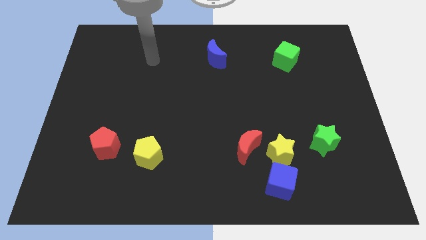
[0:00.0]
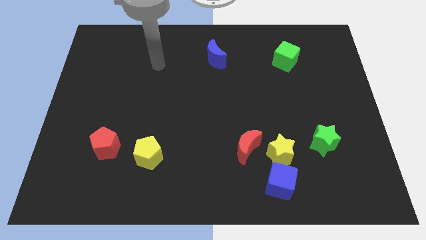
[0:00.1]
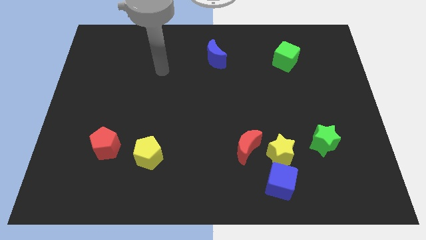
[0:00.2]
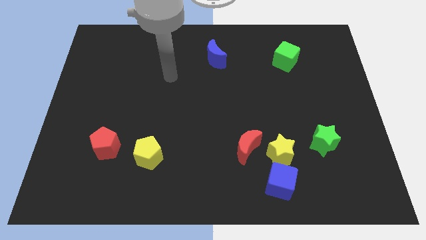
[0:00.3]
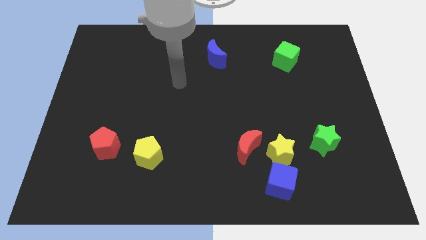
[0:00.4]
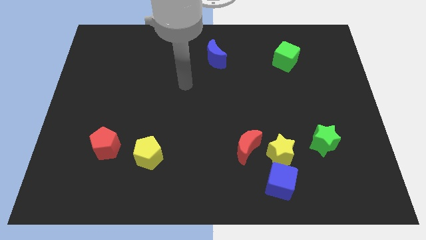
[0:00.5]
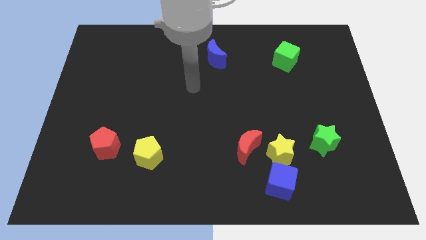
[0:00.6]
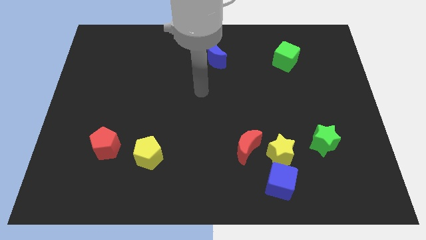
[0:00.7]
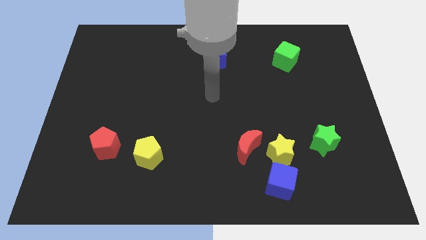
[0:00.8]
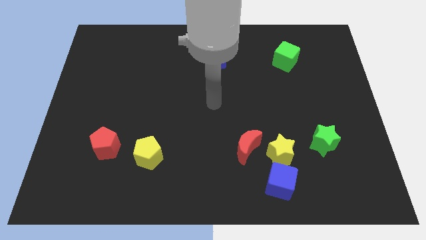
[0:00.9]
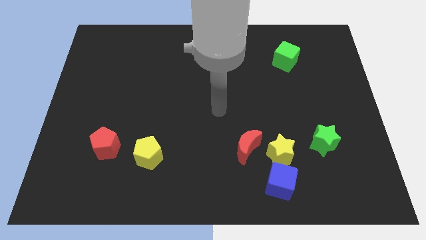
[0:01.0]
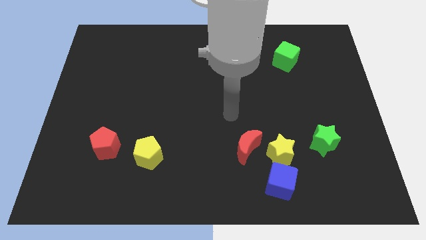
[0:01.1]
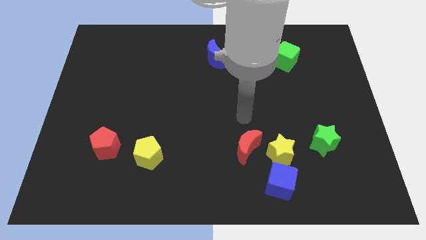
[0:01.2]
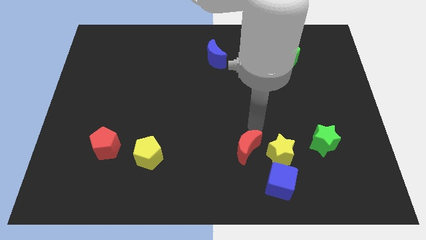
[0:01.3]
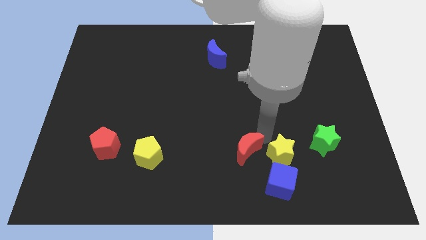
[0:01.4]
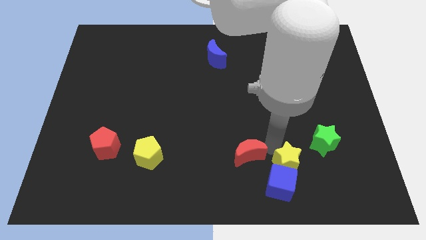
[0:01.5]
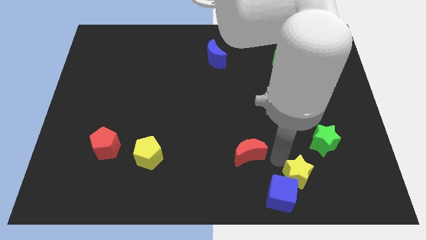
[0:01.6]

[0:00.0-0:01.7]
move the red moon away from the yellow star

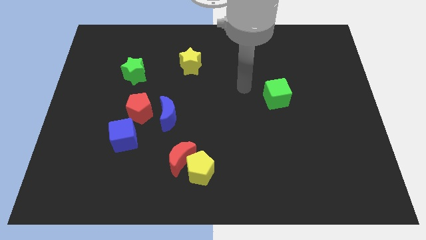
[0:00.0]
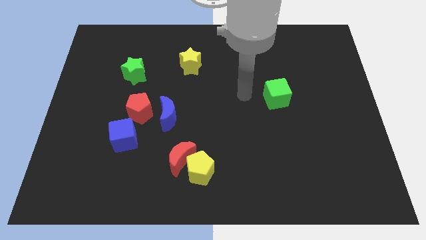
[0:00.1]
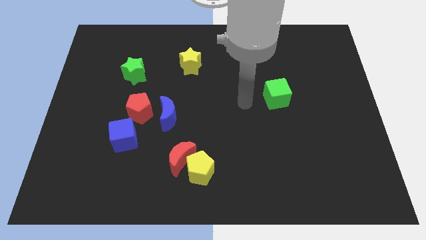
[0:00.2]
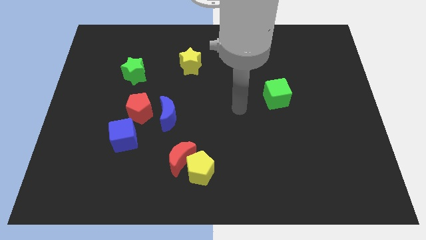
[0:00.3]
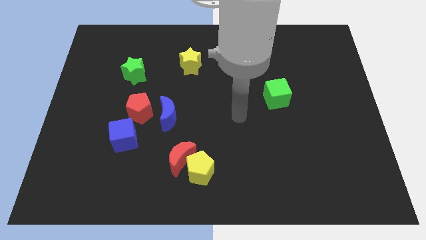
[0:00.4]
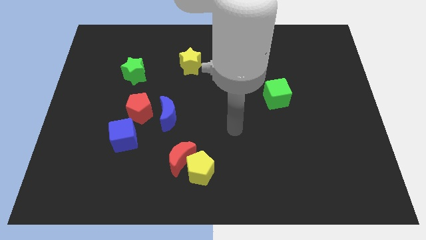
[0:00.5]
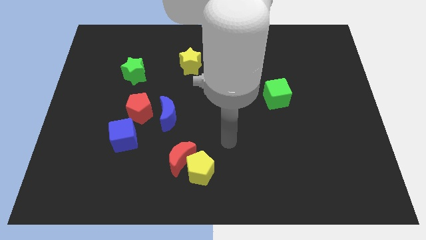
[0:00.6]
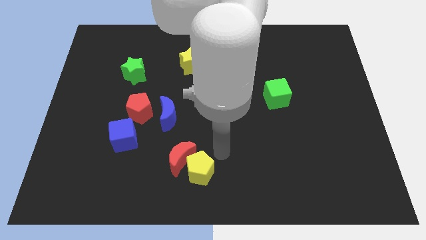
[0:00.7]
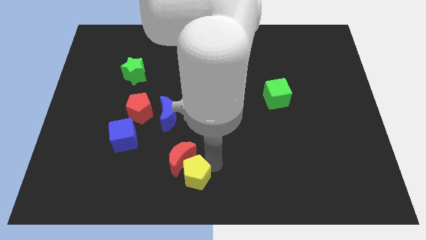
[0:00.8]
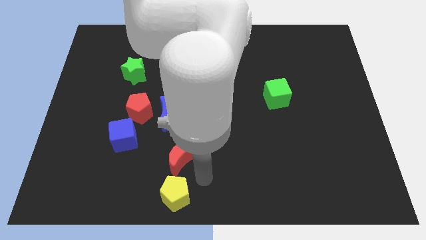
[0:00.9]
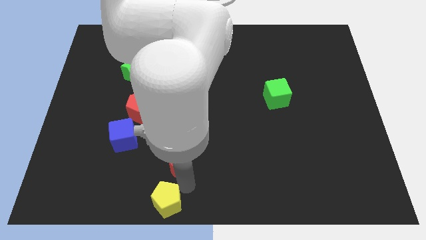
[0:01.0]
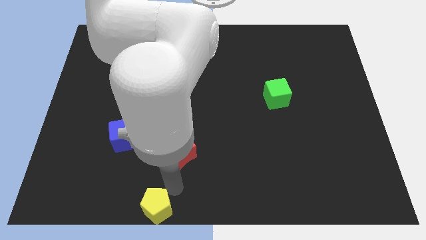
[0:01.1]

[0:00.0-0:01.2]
move the red moon away from the yellow pentagon

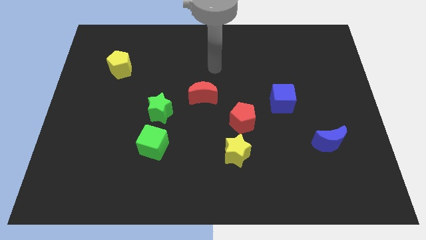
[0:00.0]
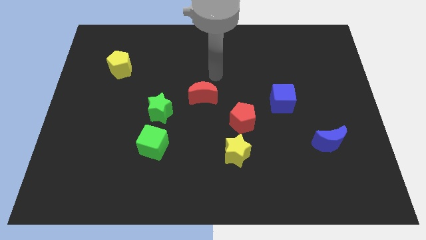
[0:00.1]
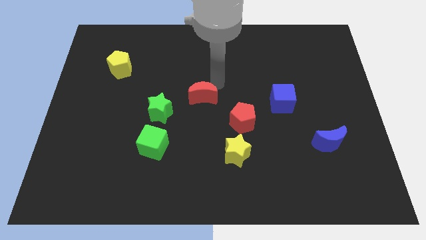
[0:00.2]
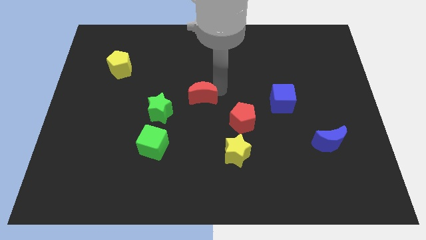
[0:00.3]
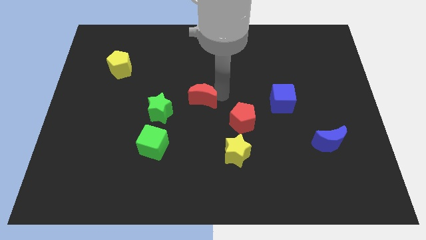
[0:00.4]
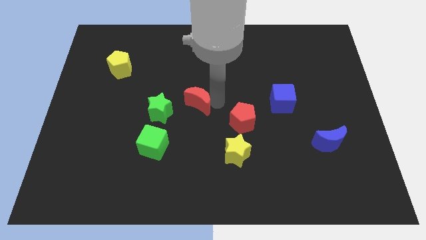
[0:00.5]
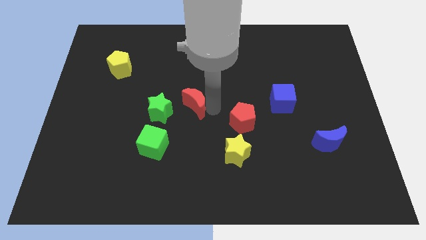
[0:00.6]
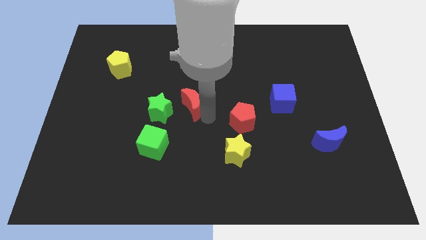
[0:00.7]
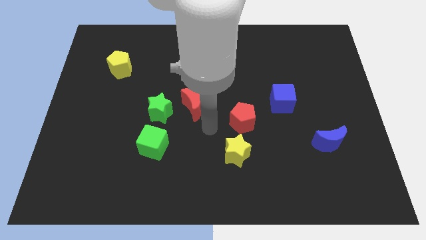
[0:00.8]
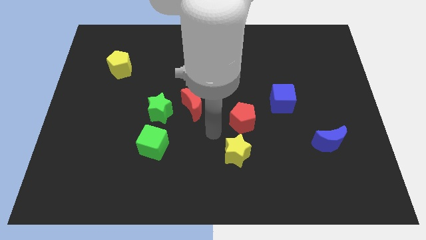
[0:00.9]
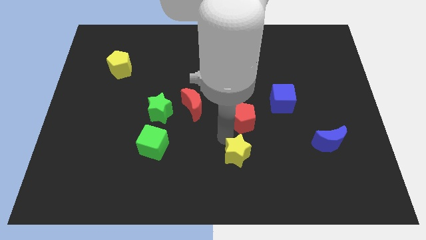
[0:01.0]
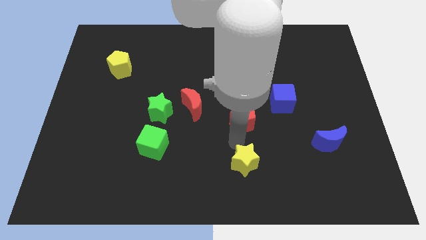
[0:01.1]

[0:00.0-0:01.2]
move the red pentagon away from the yellow star

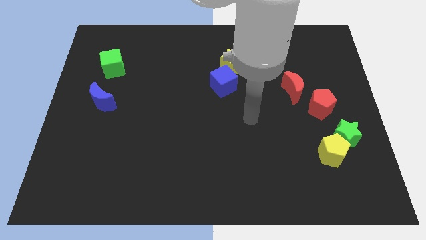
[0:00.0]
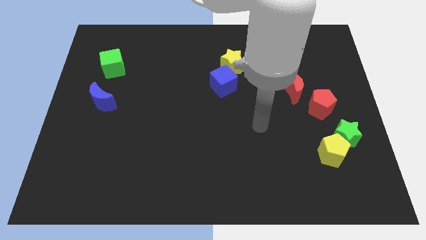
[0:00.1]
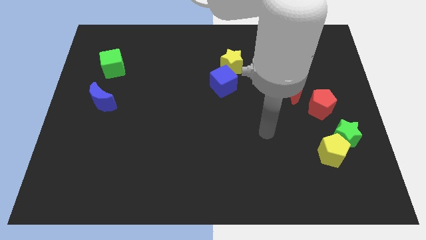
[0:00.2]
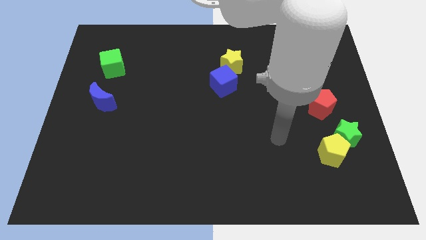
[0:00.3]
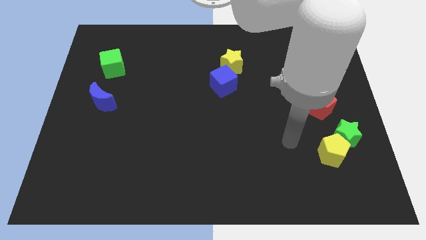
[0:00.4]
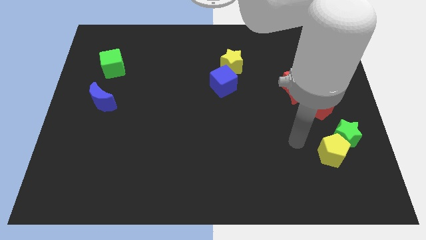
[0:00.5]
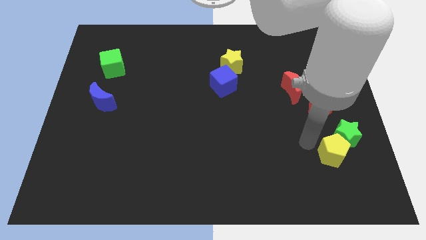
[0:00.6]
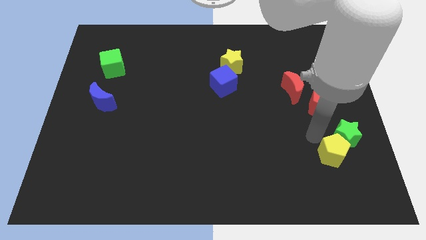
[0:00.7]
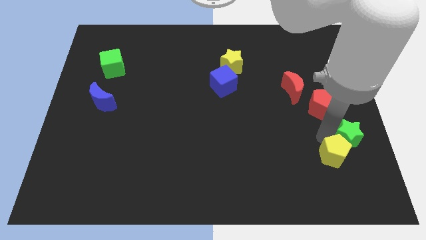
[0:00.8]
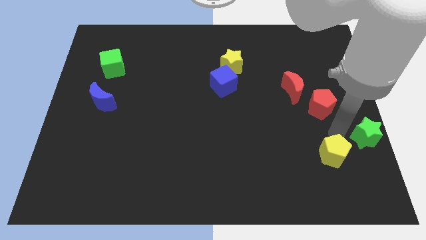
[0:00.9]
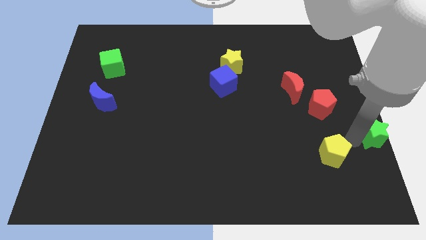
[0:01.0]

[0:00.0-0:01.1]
move the yellow pentagon away from the green star

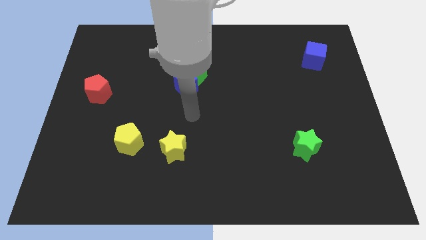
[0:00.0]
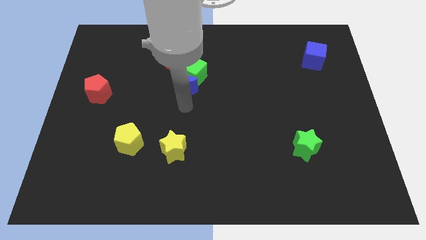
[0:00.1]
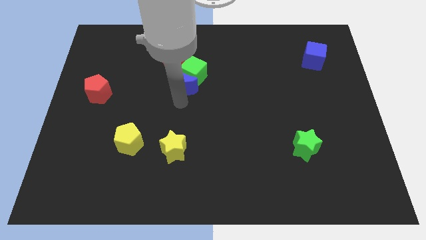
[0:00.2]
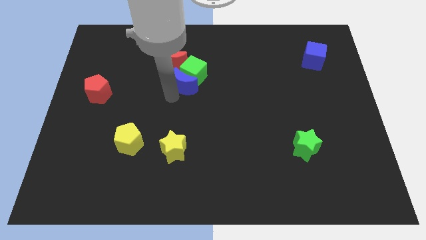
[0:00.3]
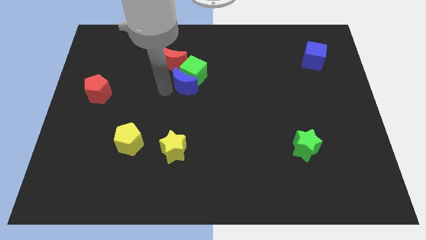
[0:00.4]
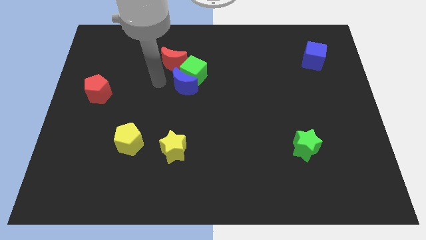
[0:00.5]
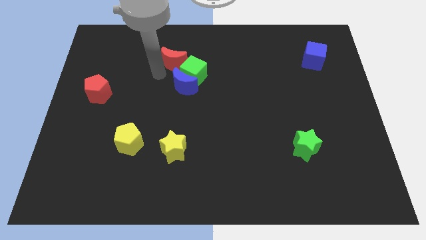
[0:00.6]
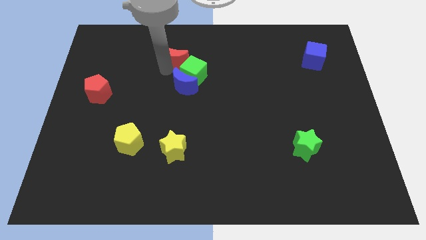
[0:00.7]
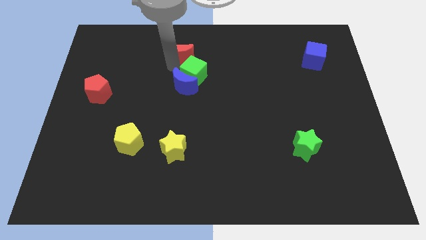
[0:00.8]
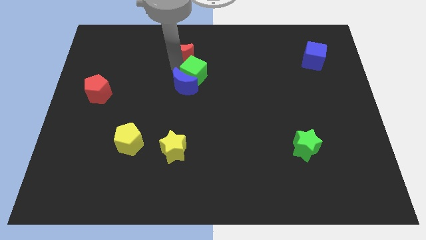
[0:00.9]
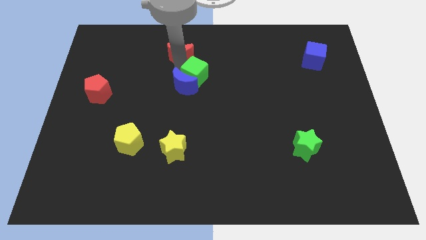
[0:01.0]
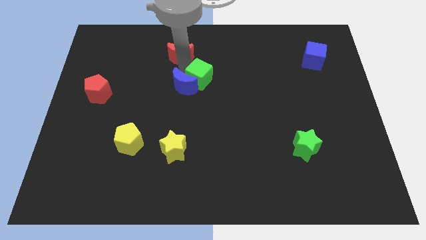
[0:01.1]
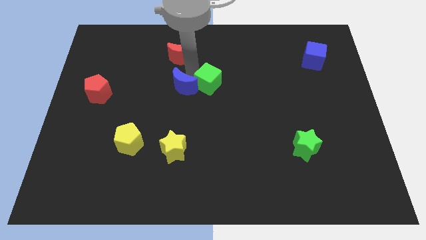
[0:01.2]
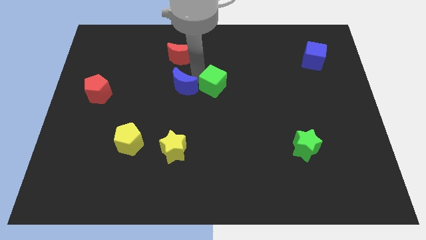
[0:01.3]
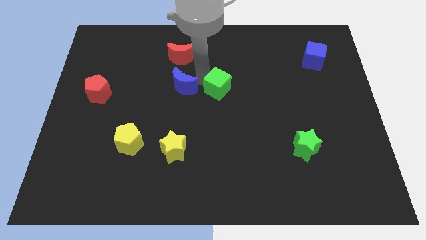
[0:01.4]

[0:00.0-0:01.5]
separate the green cube from the blue moon and red moon

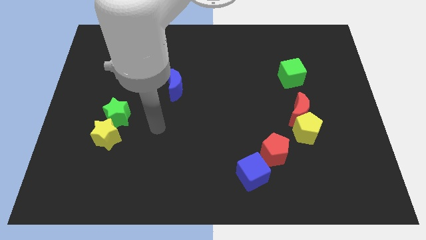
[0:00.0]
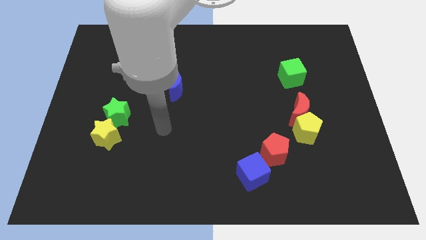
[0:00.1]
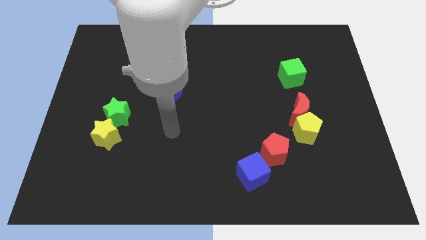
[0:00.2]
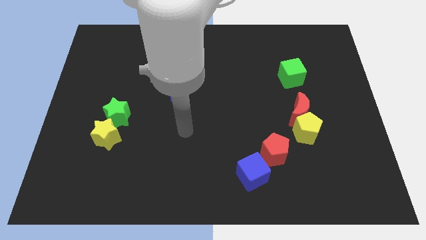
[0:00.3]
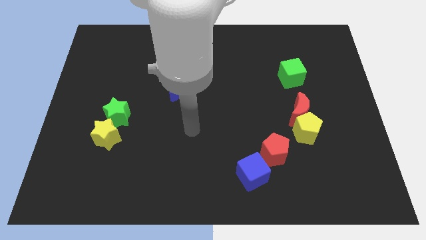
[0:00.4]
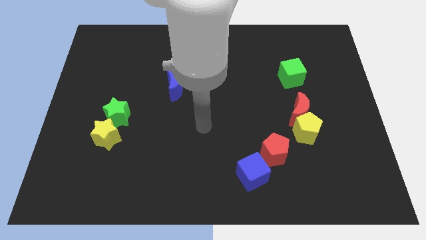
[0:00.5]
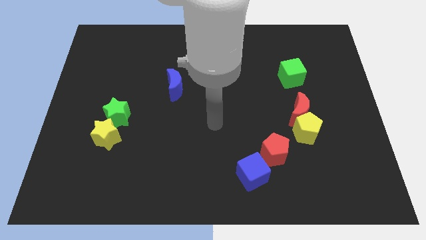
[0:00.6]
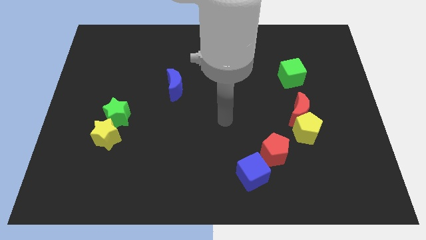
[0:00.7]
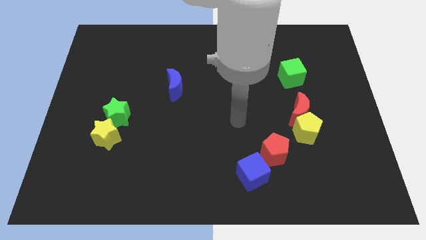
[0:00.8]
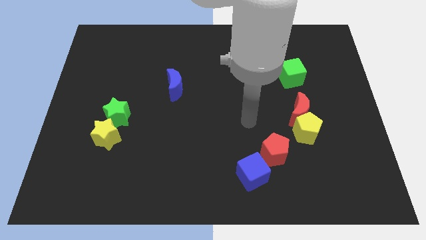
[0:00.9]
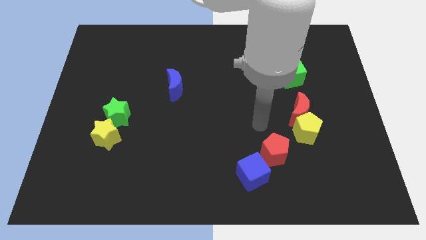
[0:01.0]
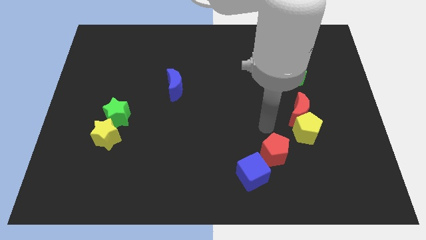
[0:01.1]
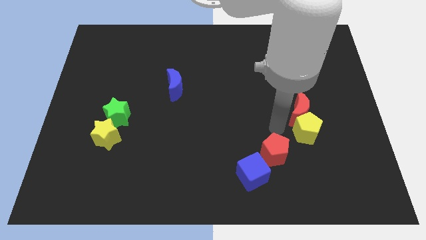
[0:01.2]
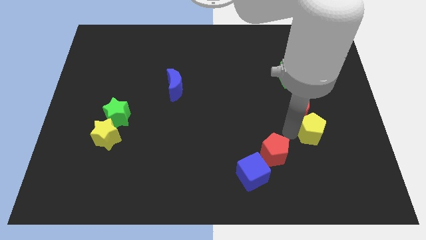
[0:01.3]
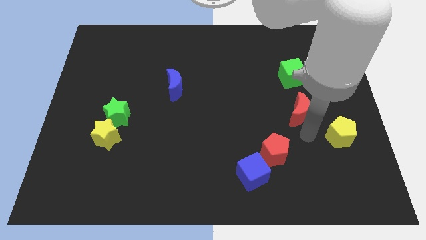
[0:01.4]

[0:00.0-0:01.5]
pull the red moon apart from the yellow pentagon

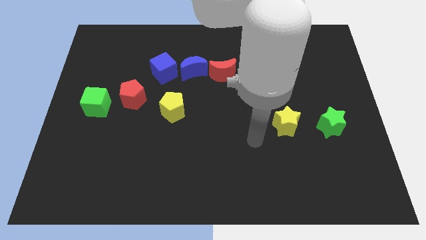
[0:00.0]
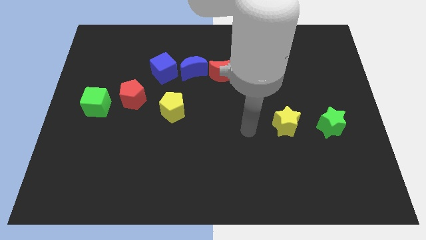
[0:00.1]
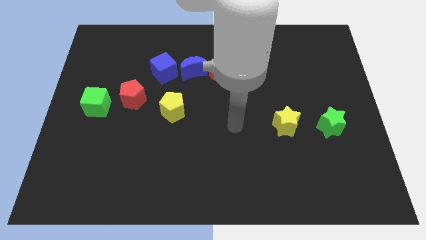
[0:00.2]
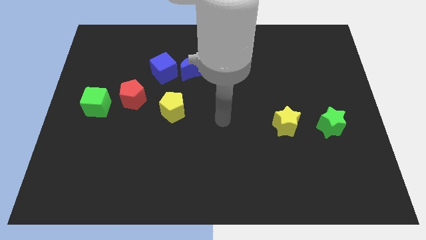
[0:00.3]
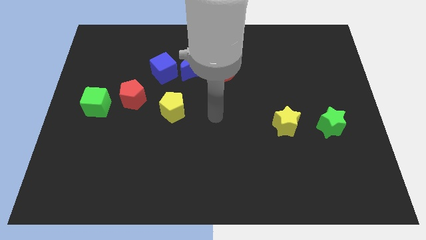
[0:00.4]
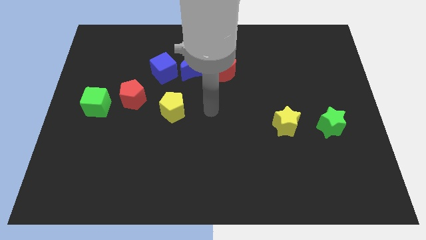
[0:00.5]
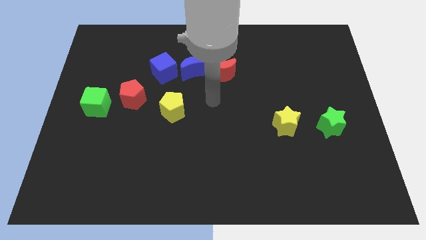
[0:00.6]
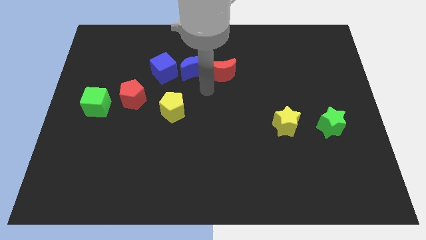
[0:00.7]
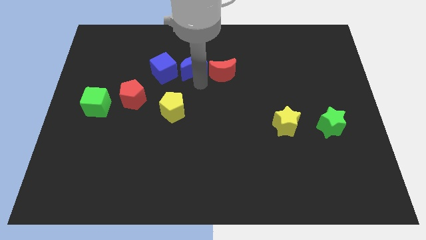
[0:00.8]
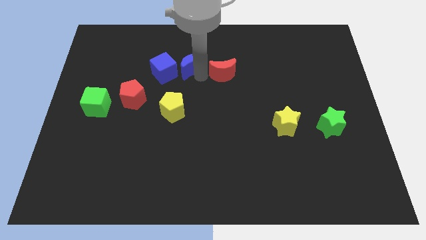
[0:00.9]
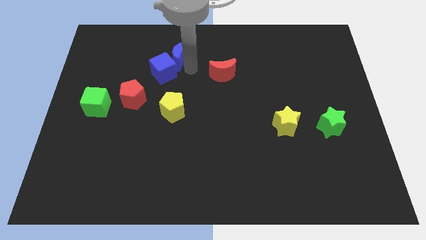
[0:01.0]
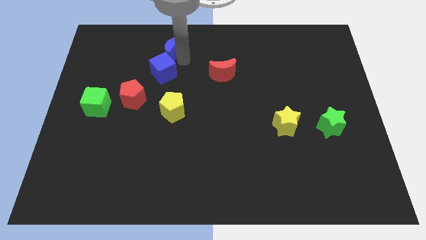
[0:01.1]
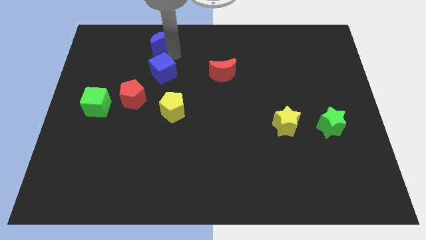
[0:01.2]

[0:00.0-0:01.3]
pull the blue cube apart from the blue moon
